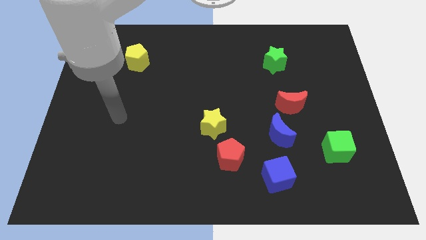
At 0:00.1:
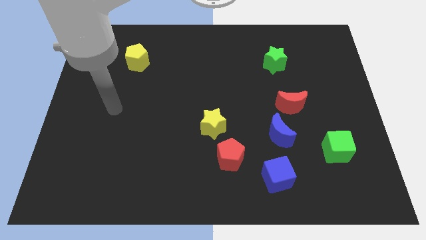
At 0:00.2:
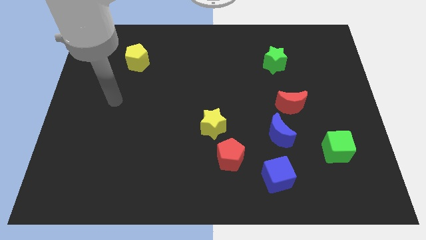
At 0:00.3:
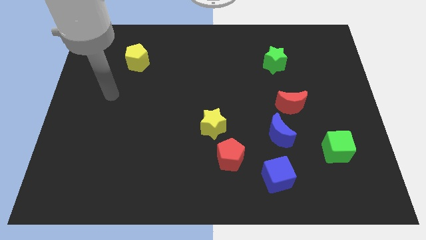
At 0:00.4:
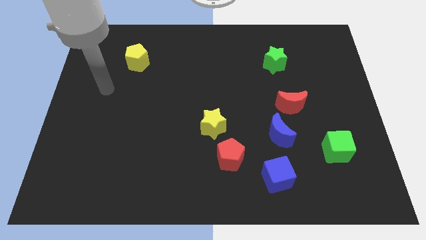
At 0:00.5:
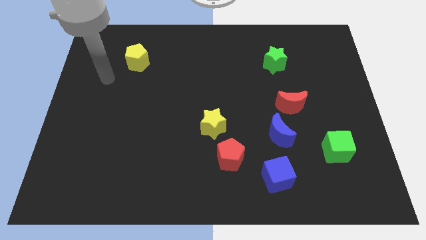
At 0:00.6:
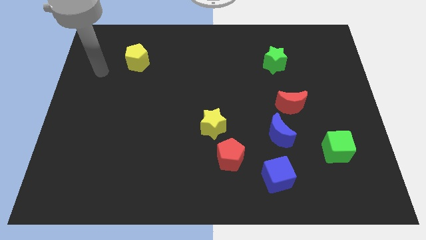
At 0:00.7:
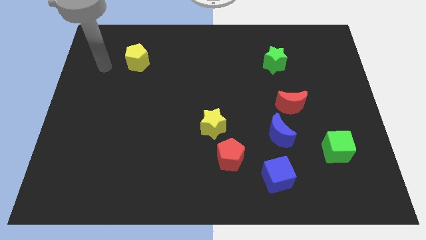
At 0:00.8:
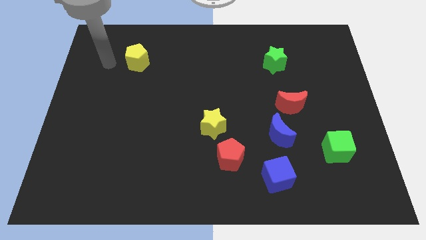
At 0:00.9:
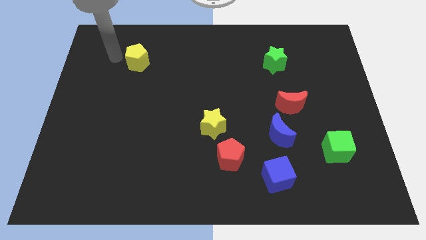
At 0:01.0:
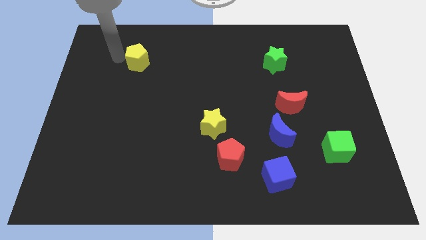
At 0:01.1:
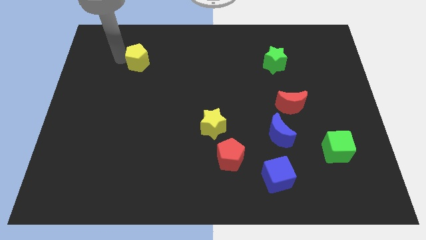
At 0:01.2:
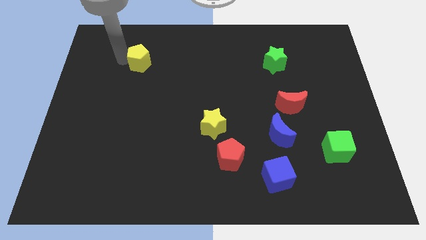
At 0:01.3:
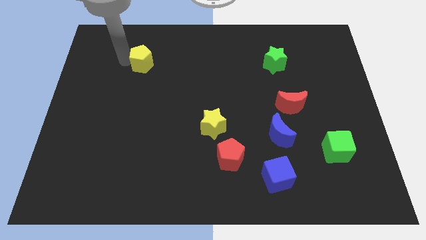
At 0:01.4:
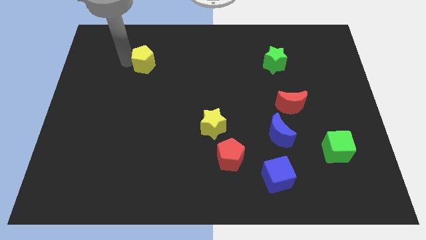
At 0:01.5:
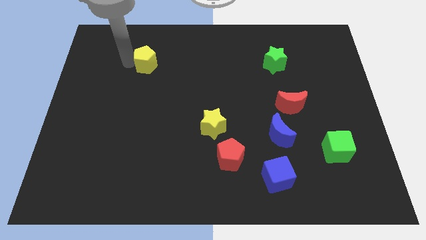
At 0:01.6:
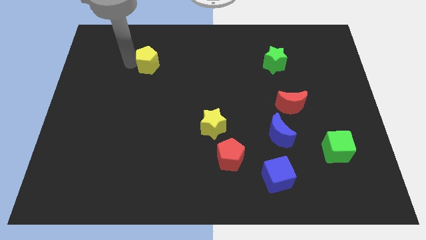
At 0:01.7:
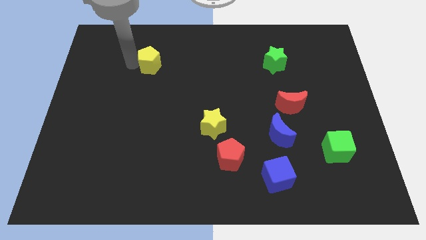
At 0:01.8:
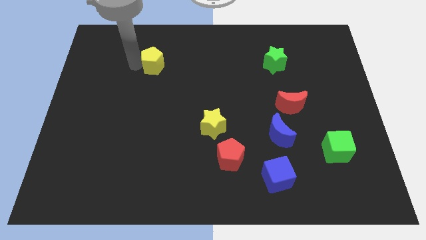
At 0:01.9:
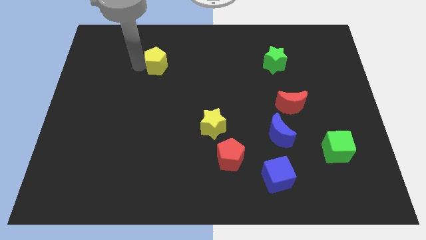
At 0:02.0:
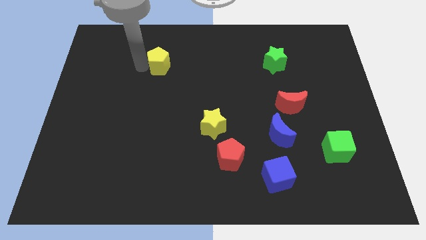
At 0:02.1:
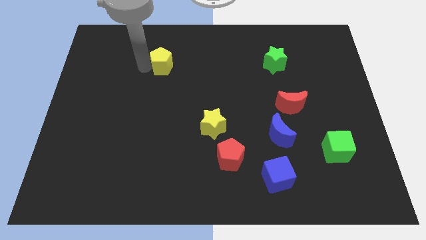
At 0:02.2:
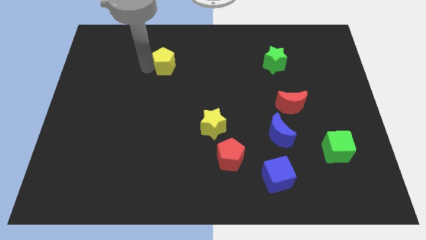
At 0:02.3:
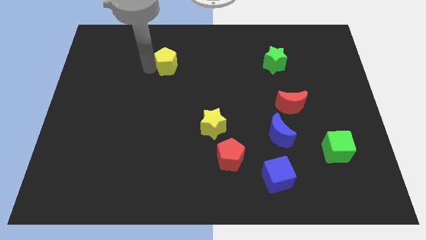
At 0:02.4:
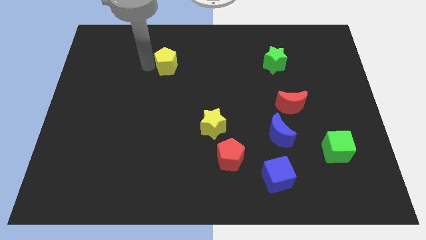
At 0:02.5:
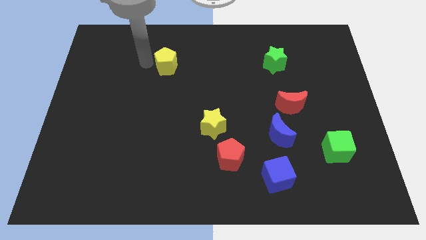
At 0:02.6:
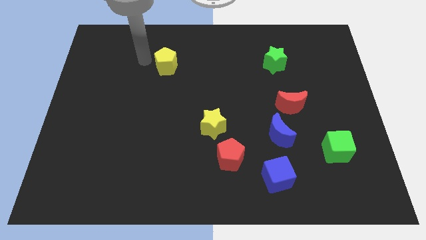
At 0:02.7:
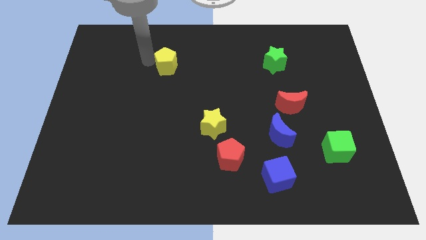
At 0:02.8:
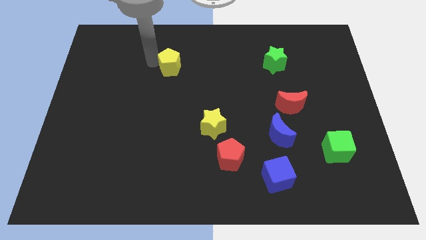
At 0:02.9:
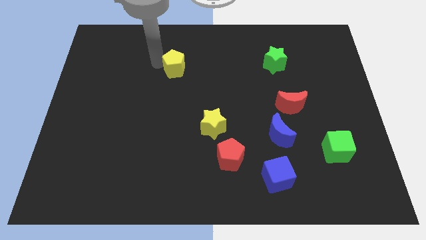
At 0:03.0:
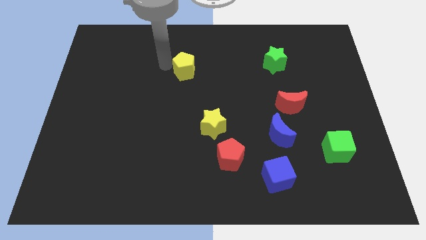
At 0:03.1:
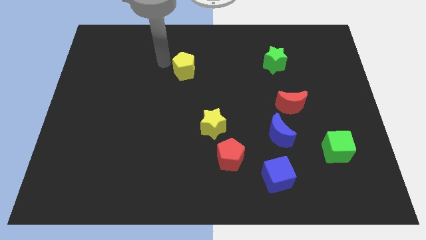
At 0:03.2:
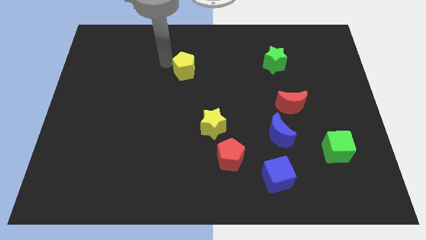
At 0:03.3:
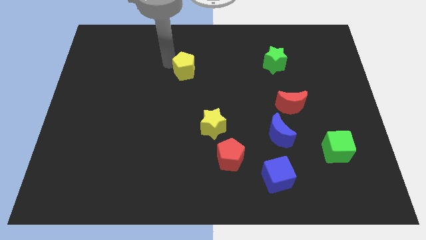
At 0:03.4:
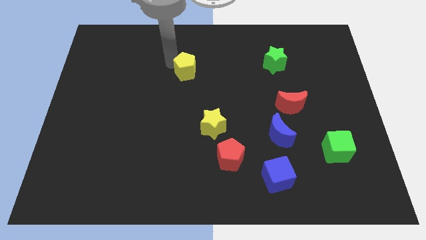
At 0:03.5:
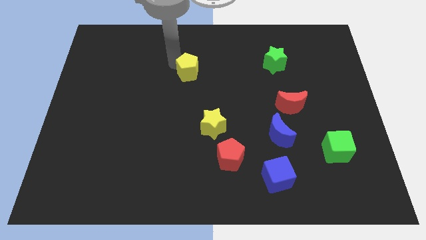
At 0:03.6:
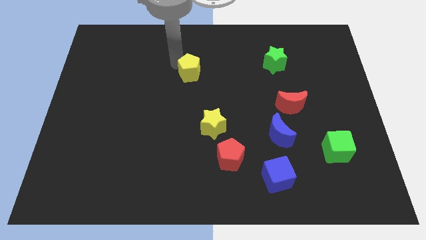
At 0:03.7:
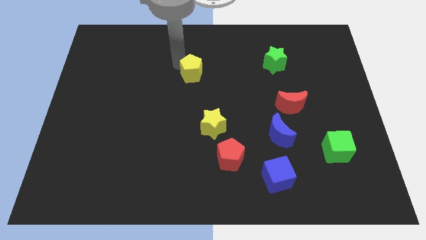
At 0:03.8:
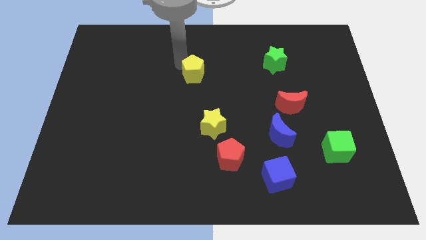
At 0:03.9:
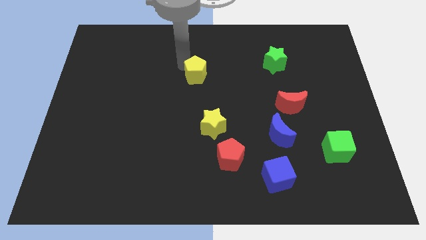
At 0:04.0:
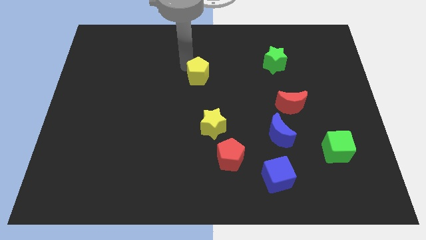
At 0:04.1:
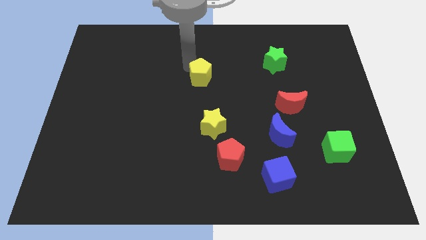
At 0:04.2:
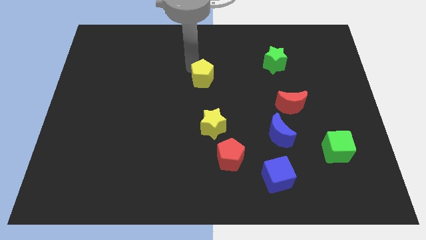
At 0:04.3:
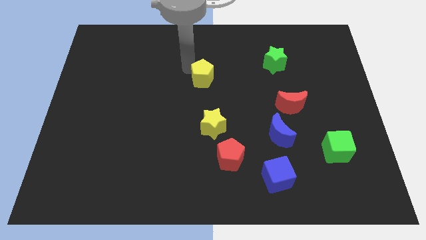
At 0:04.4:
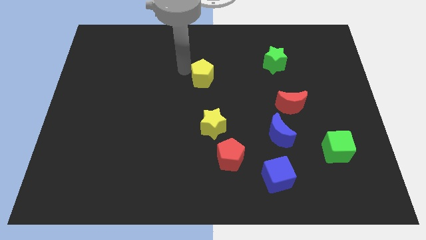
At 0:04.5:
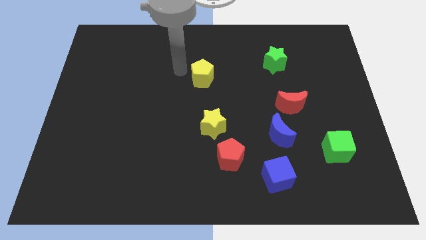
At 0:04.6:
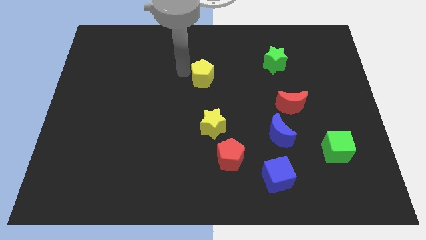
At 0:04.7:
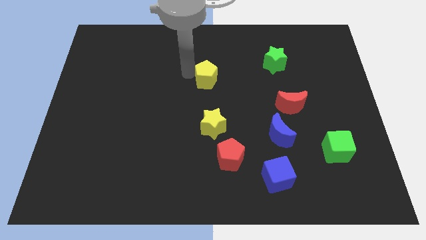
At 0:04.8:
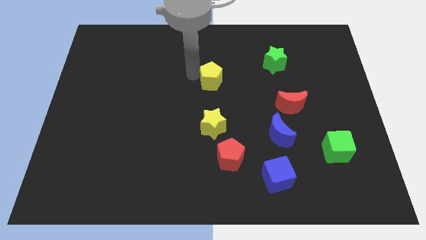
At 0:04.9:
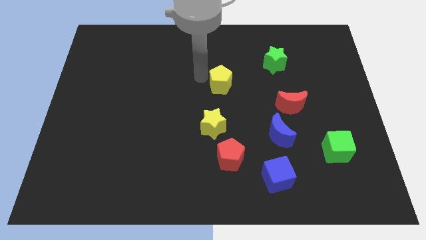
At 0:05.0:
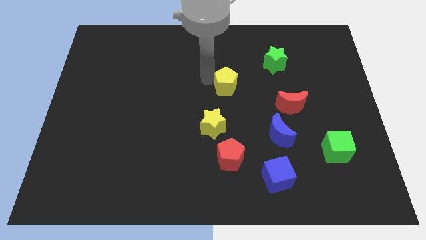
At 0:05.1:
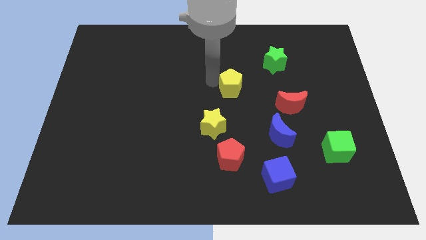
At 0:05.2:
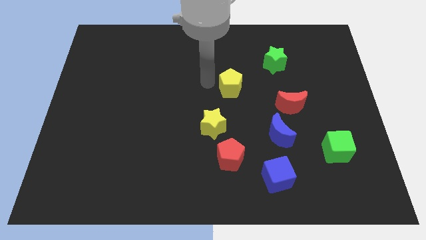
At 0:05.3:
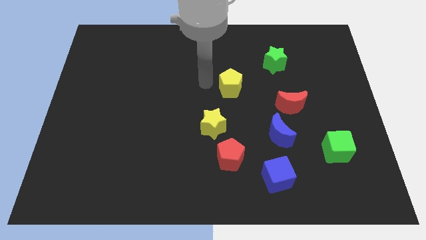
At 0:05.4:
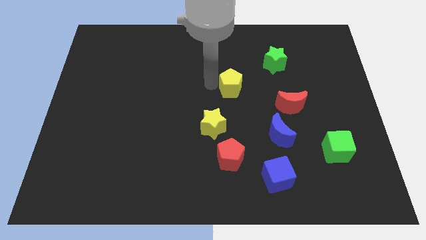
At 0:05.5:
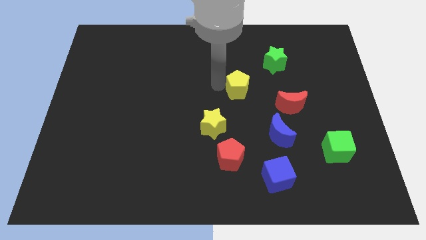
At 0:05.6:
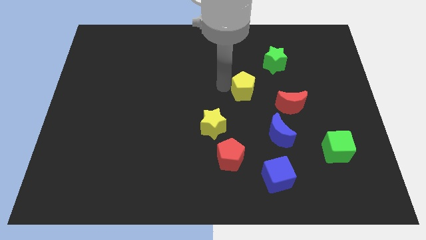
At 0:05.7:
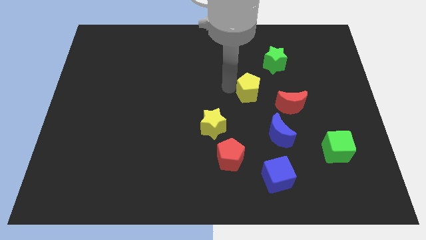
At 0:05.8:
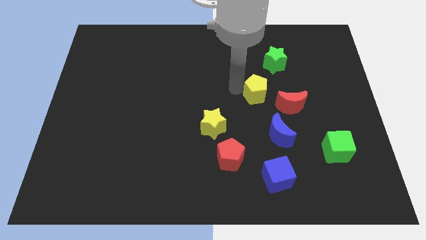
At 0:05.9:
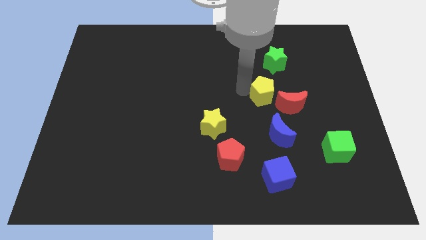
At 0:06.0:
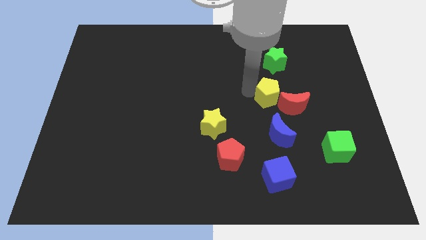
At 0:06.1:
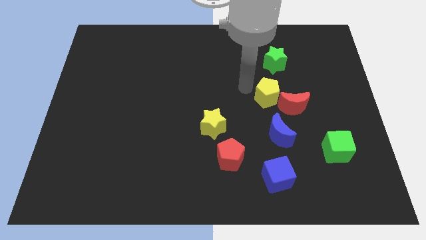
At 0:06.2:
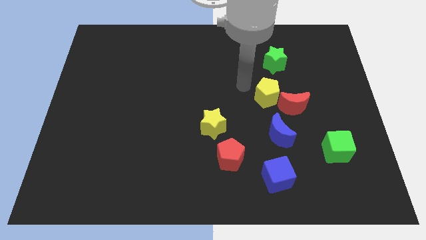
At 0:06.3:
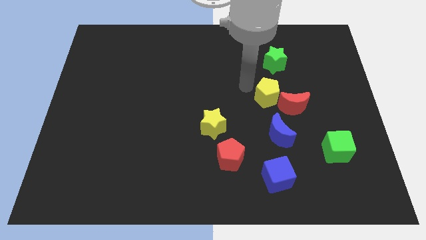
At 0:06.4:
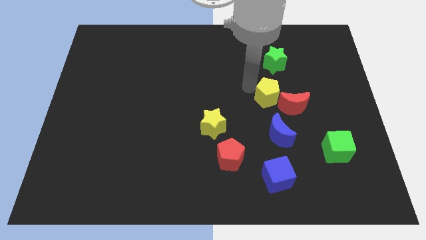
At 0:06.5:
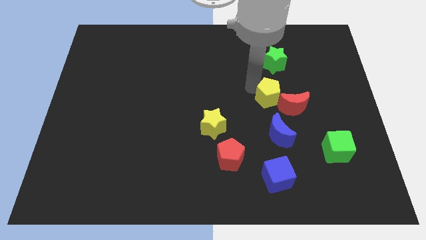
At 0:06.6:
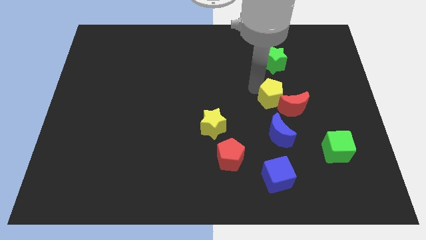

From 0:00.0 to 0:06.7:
push the yellow pentagon next to the red moon

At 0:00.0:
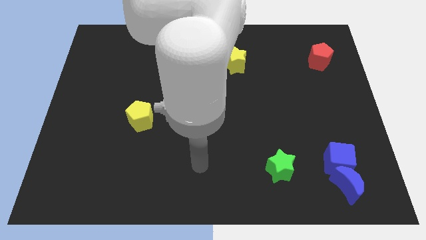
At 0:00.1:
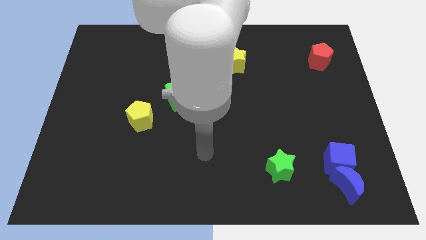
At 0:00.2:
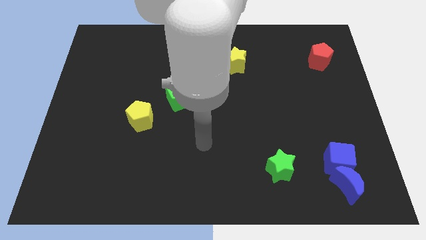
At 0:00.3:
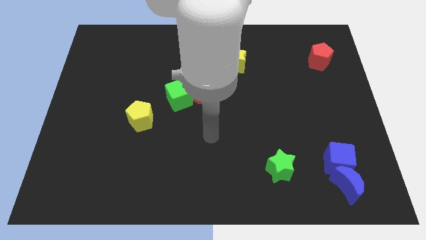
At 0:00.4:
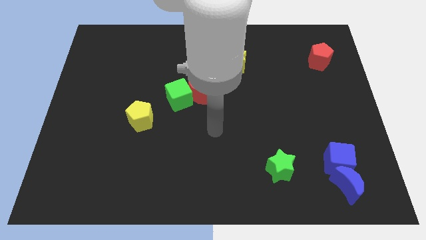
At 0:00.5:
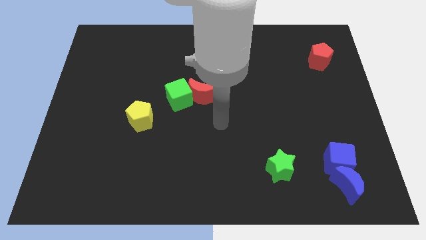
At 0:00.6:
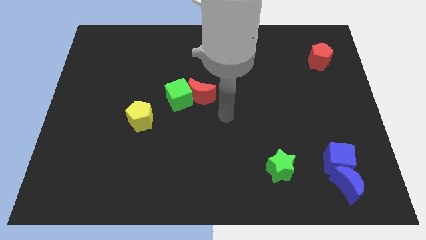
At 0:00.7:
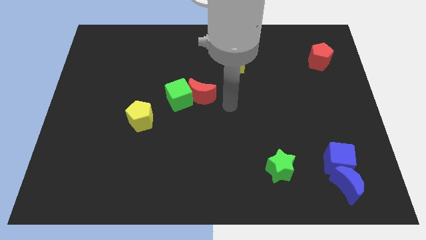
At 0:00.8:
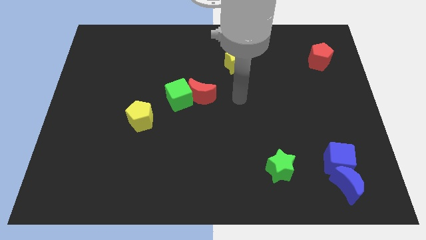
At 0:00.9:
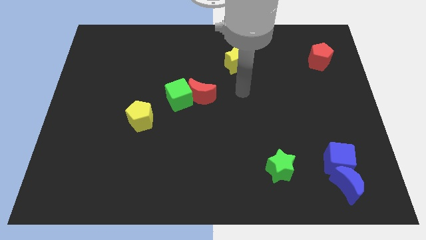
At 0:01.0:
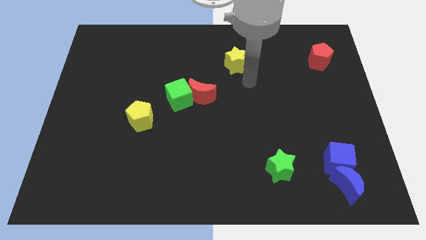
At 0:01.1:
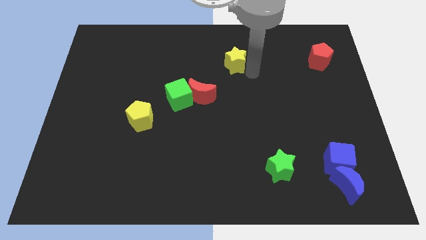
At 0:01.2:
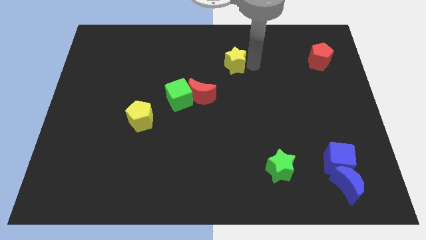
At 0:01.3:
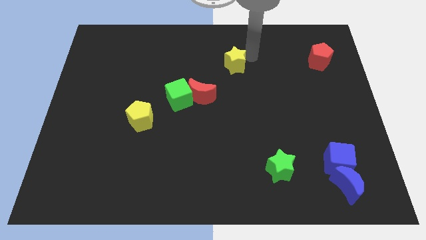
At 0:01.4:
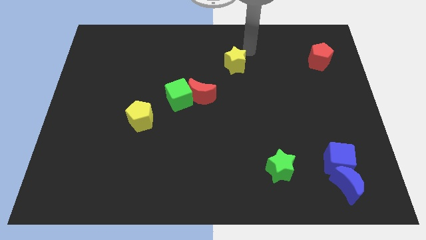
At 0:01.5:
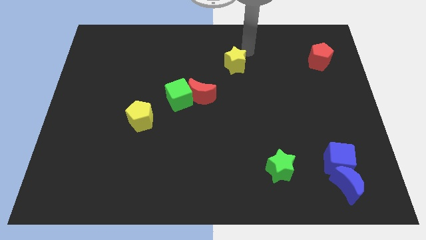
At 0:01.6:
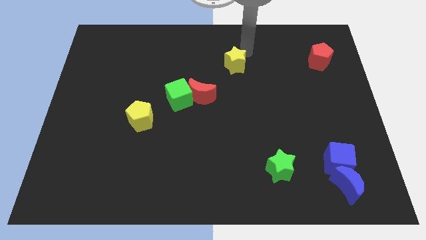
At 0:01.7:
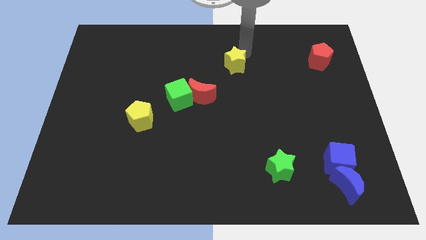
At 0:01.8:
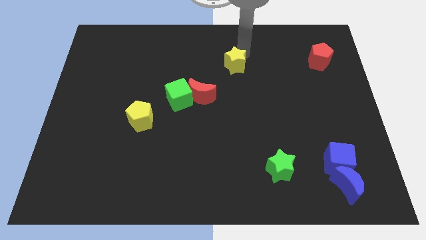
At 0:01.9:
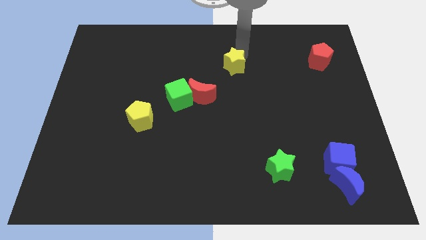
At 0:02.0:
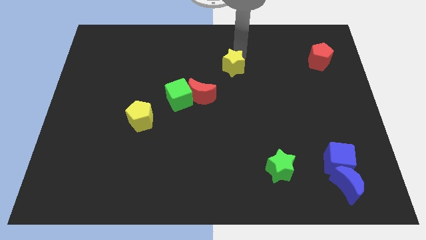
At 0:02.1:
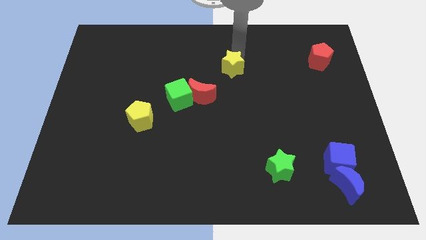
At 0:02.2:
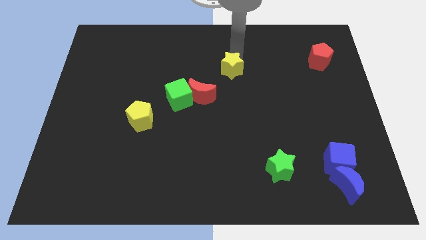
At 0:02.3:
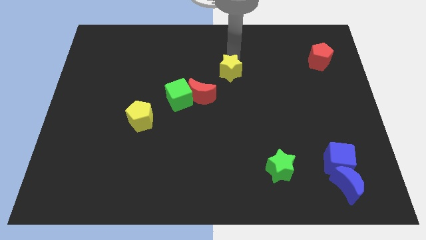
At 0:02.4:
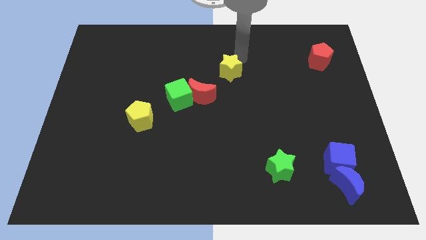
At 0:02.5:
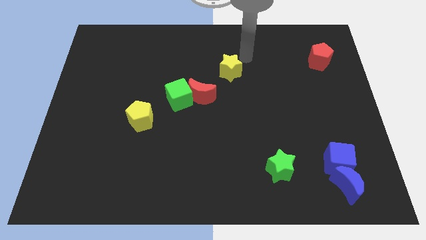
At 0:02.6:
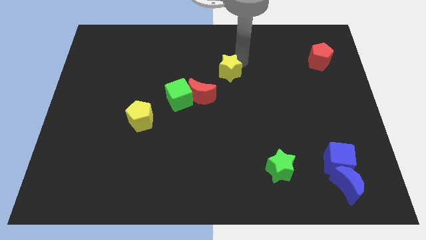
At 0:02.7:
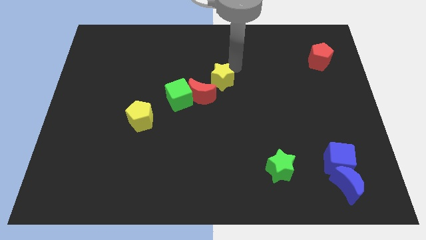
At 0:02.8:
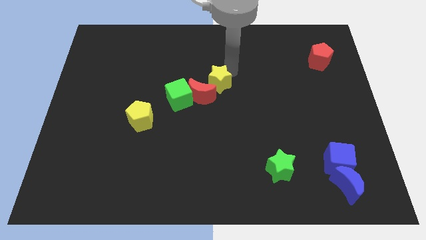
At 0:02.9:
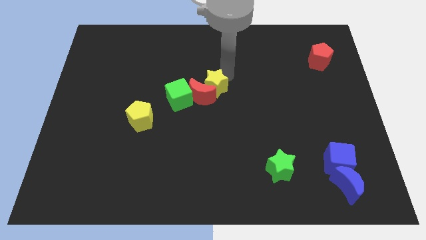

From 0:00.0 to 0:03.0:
slide the yellow star next to the red moon
